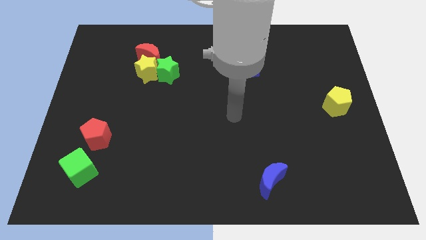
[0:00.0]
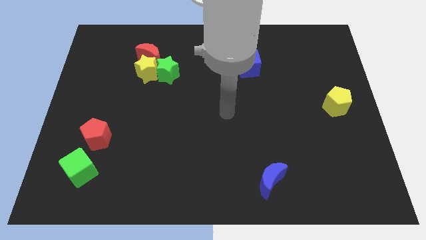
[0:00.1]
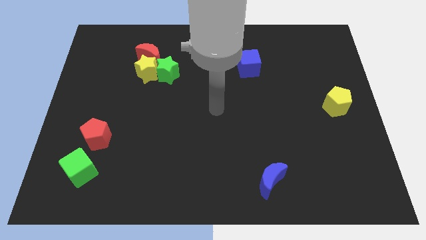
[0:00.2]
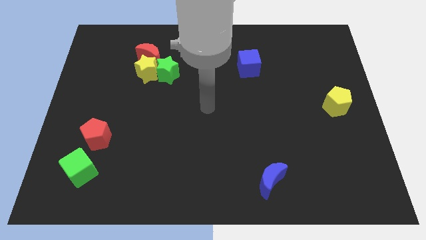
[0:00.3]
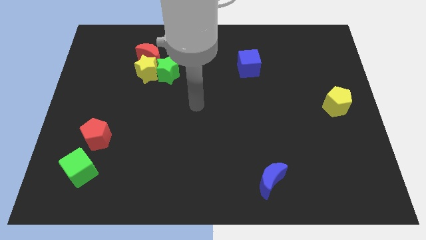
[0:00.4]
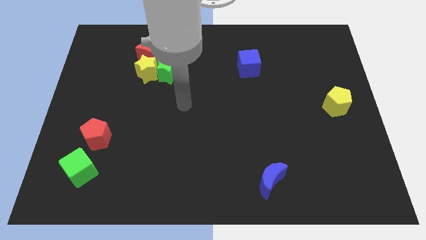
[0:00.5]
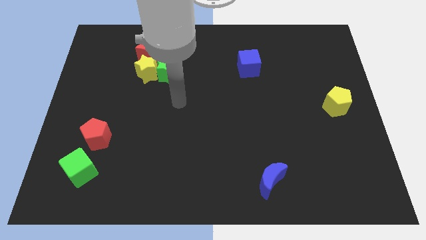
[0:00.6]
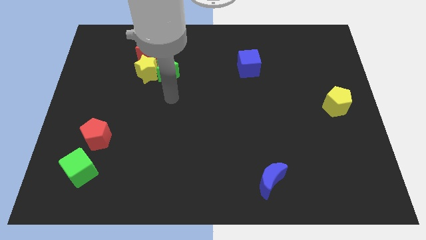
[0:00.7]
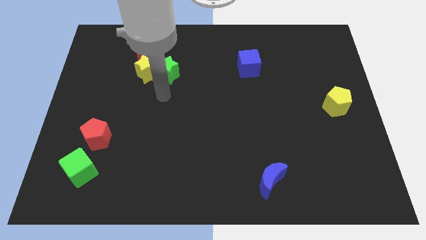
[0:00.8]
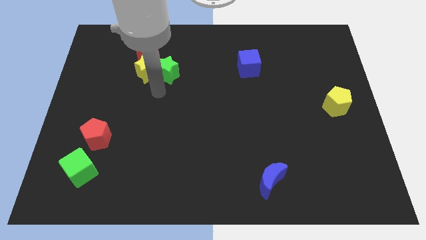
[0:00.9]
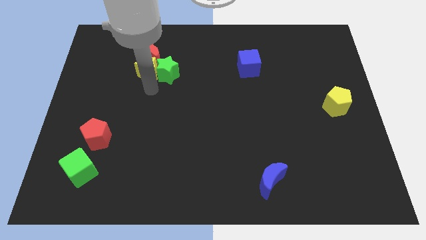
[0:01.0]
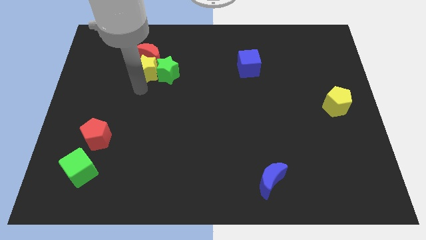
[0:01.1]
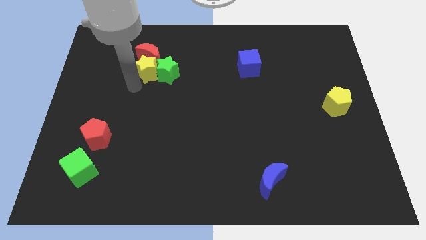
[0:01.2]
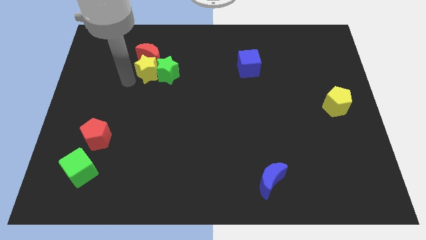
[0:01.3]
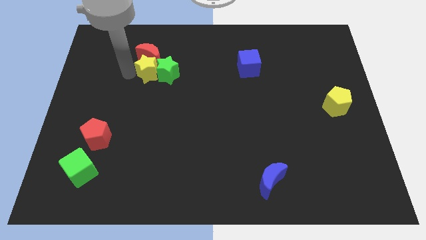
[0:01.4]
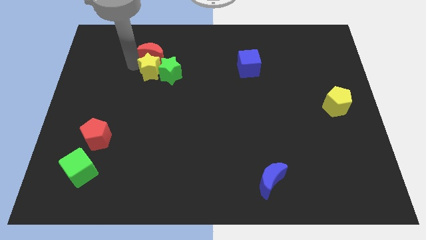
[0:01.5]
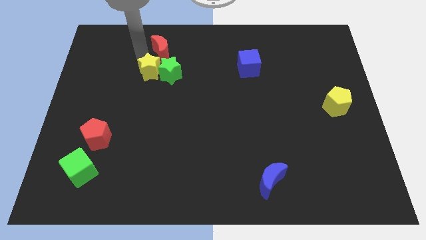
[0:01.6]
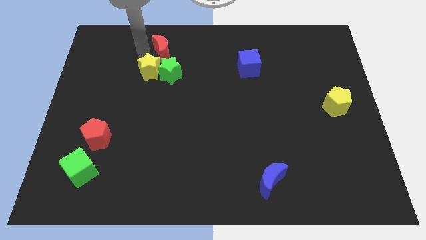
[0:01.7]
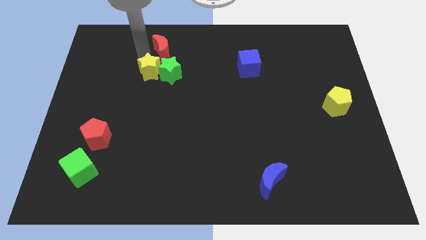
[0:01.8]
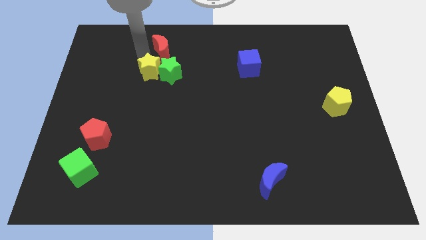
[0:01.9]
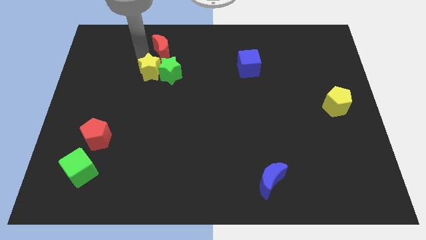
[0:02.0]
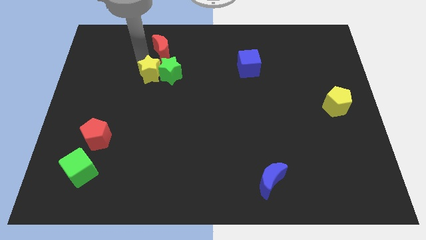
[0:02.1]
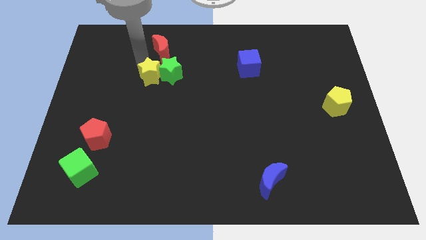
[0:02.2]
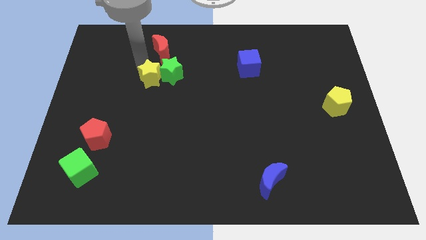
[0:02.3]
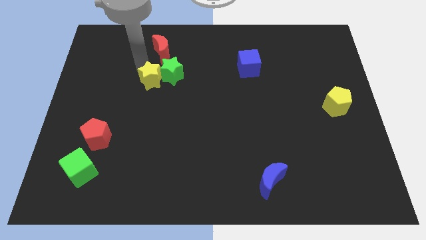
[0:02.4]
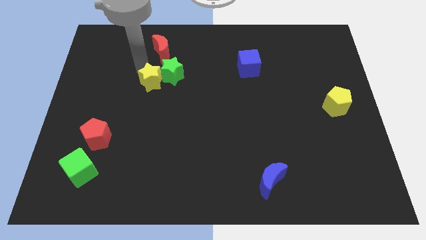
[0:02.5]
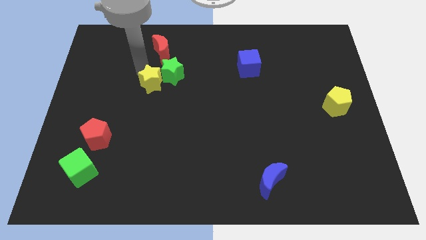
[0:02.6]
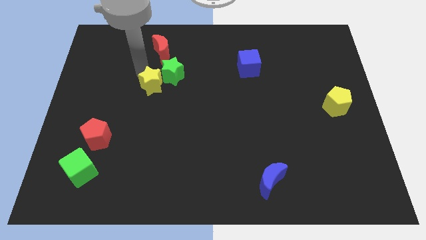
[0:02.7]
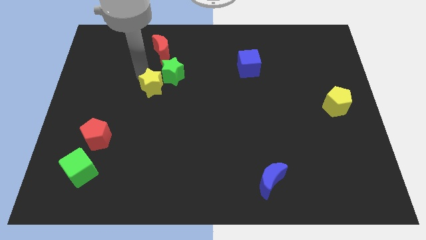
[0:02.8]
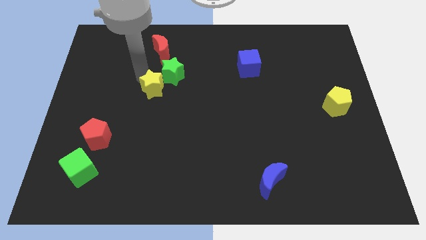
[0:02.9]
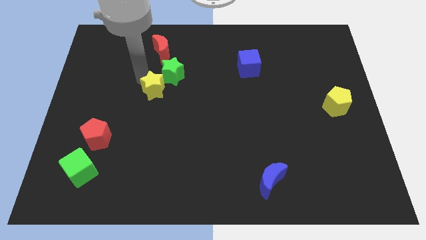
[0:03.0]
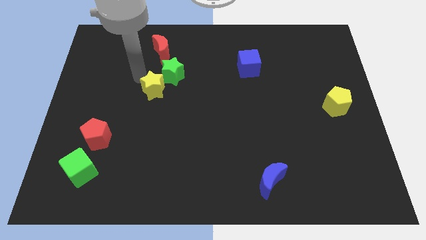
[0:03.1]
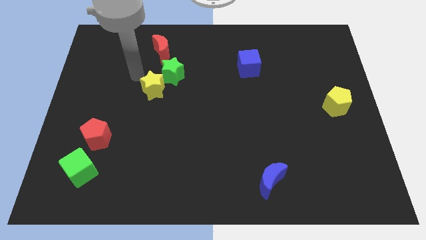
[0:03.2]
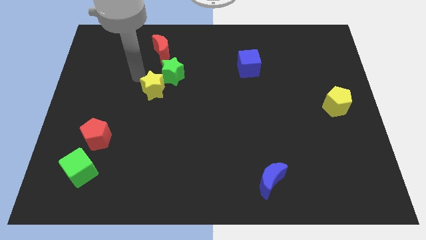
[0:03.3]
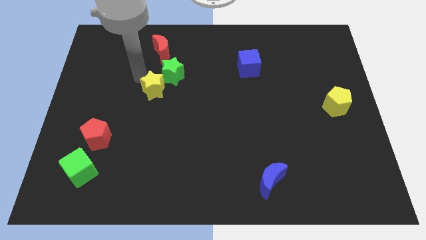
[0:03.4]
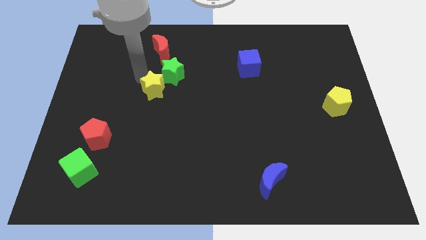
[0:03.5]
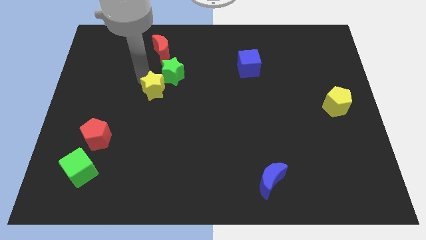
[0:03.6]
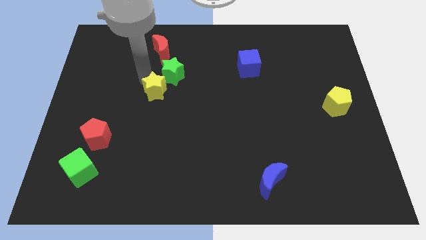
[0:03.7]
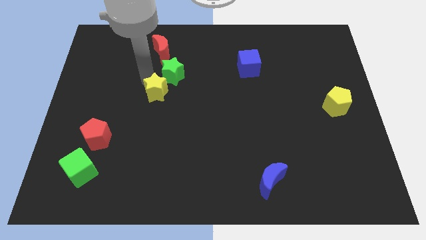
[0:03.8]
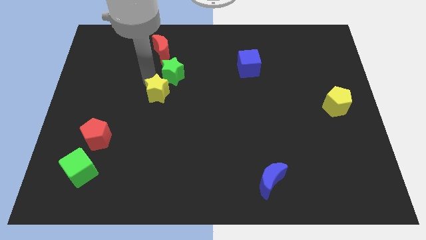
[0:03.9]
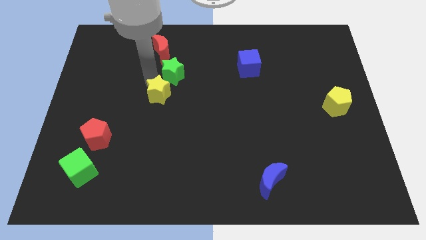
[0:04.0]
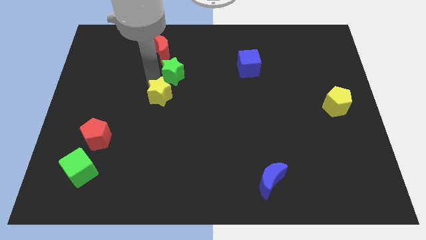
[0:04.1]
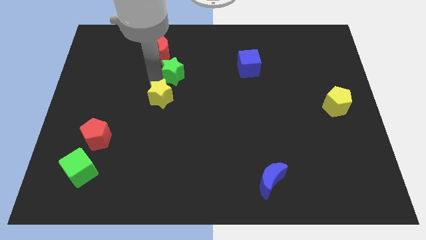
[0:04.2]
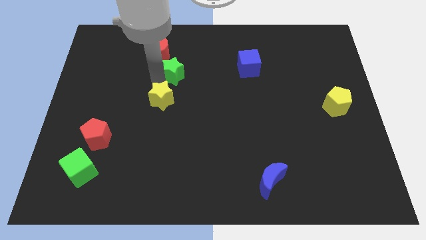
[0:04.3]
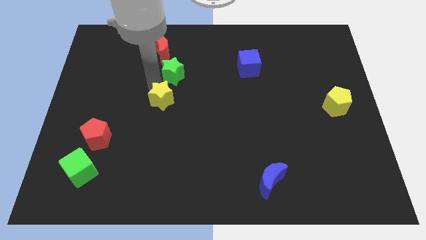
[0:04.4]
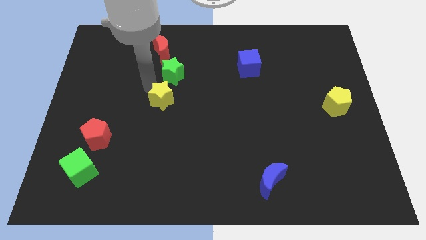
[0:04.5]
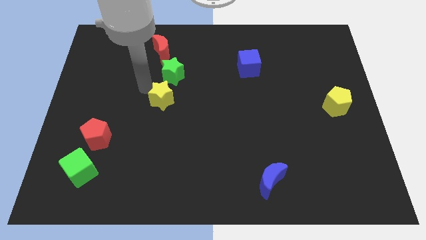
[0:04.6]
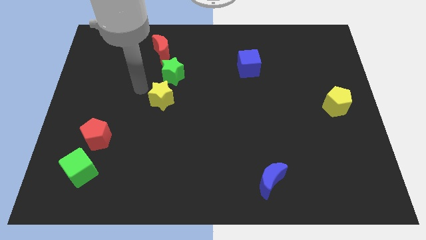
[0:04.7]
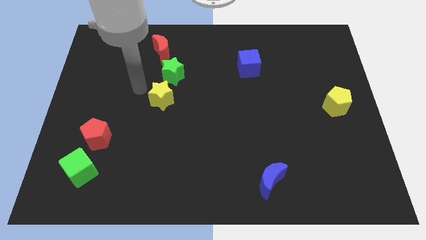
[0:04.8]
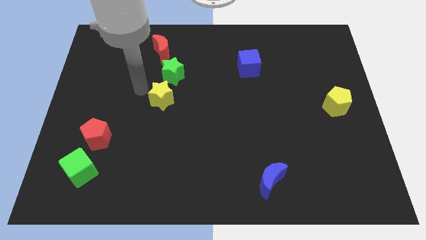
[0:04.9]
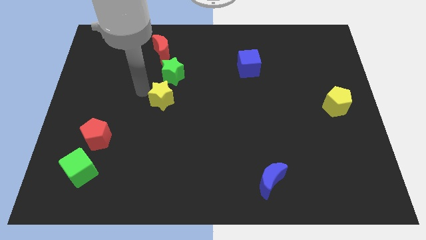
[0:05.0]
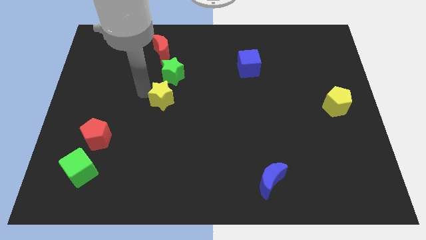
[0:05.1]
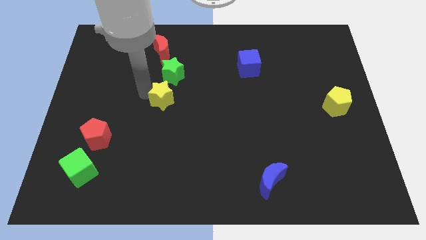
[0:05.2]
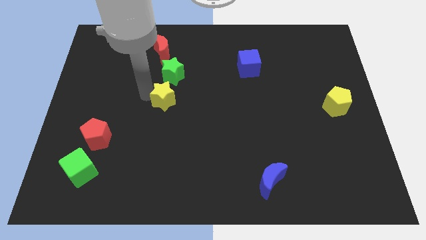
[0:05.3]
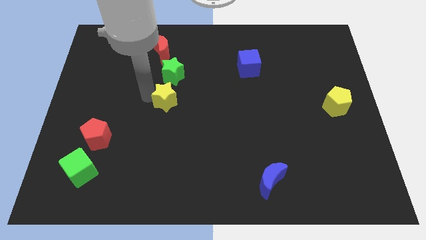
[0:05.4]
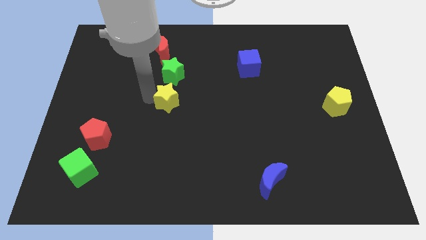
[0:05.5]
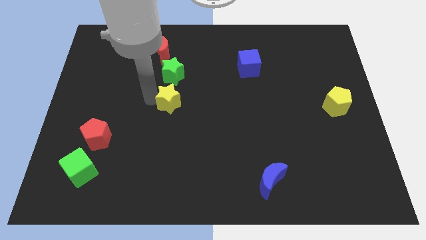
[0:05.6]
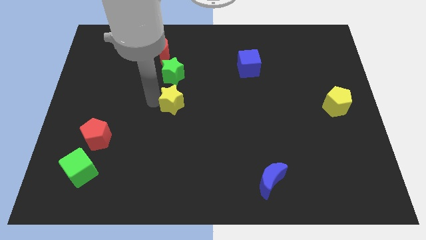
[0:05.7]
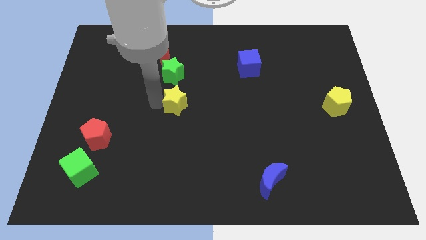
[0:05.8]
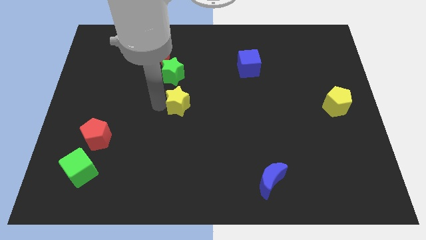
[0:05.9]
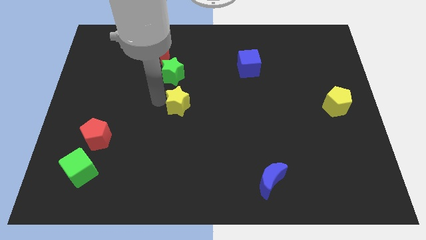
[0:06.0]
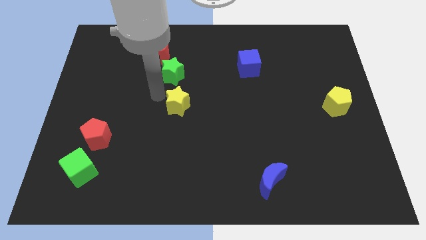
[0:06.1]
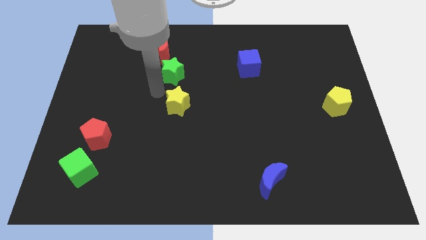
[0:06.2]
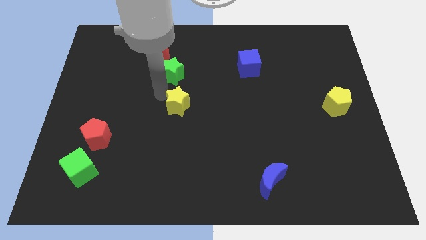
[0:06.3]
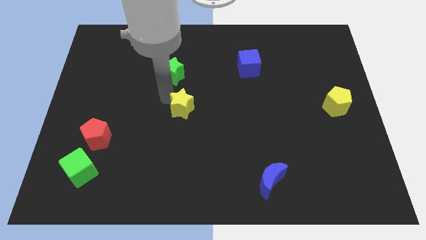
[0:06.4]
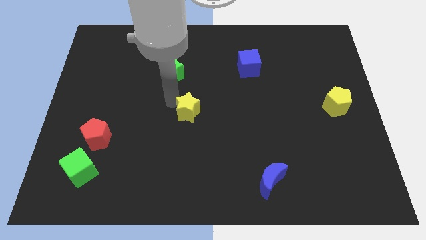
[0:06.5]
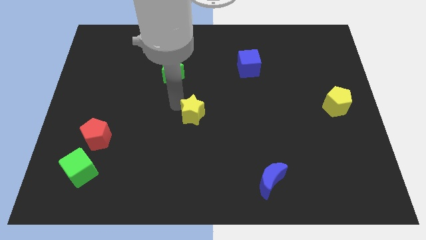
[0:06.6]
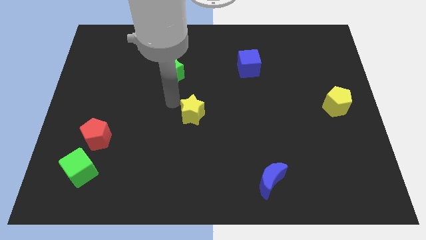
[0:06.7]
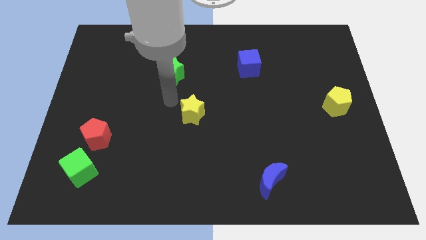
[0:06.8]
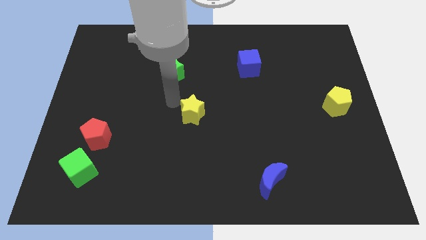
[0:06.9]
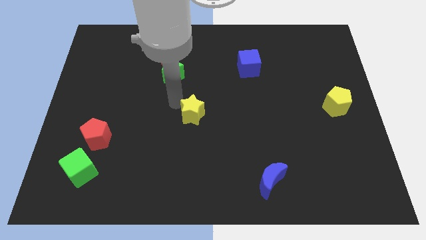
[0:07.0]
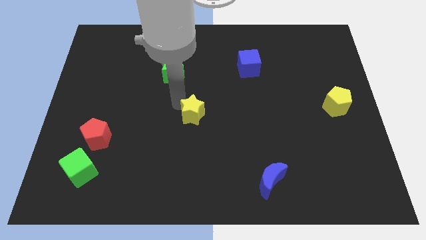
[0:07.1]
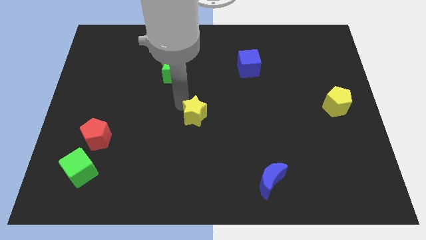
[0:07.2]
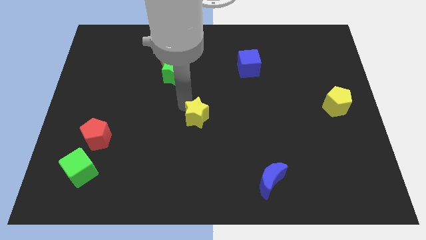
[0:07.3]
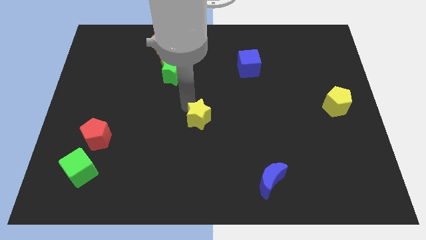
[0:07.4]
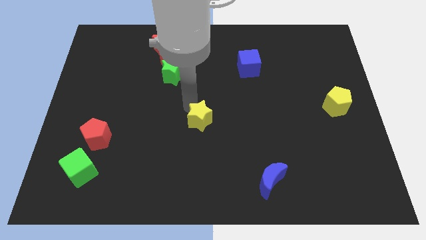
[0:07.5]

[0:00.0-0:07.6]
push the yellow star down and to the right

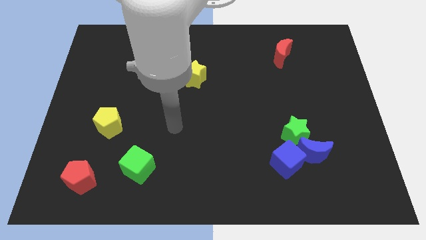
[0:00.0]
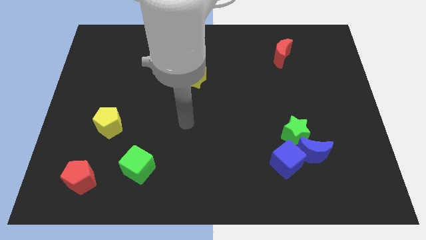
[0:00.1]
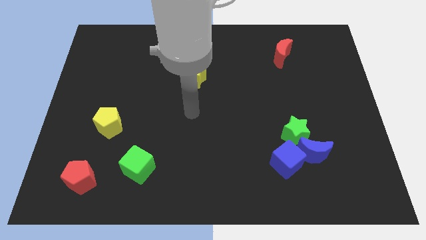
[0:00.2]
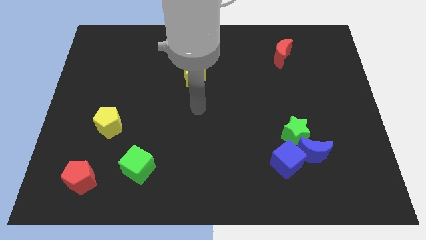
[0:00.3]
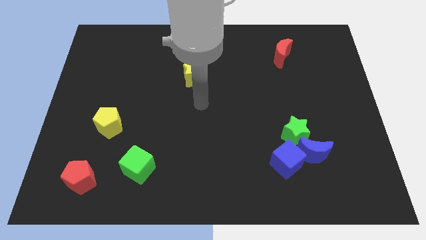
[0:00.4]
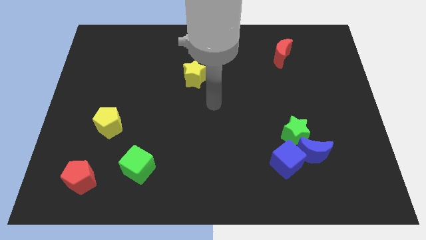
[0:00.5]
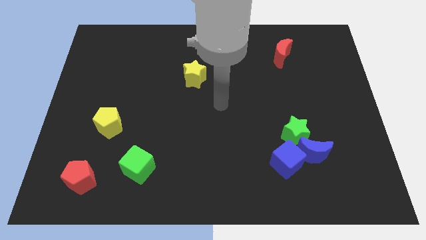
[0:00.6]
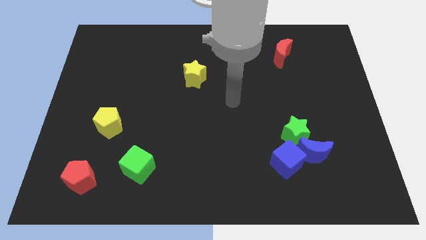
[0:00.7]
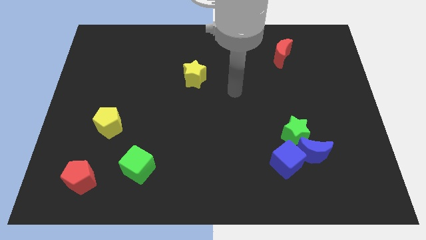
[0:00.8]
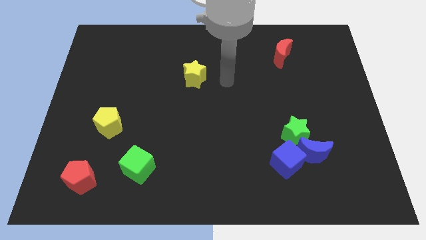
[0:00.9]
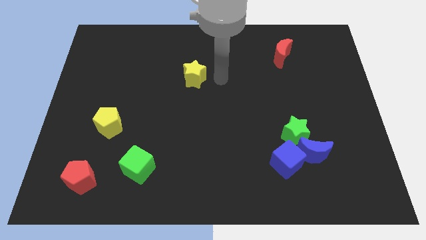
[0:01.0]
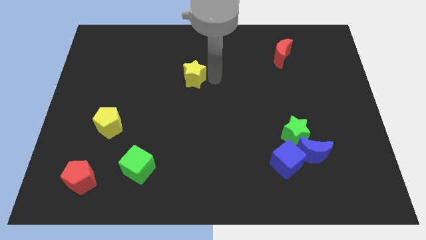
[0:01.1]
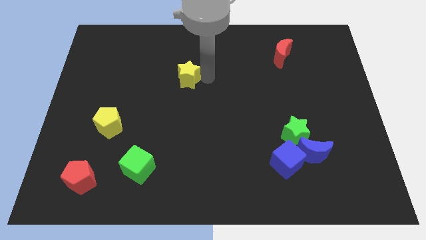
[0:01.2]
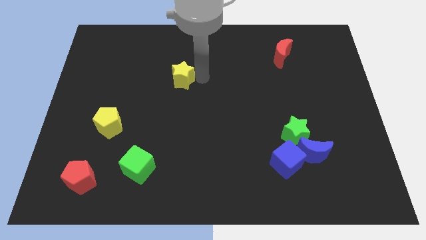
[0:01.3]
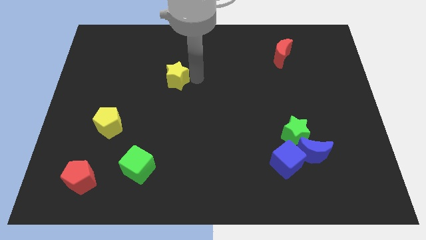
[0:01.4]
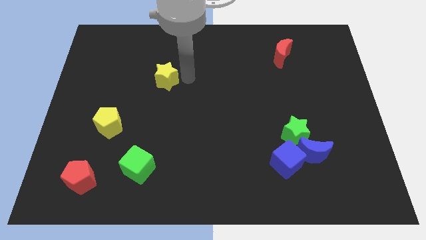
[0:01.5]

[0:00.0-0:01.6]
slide the yellow star to the left a little bit
